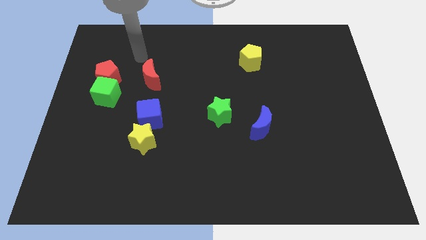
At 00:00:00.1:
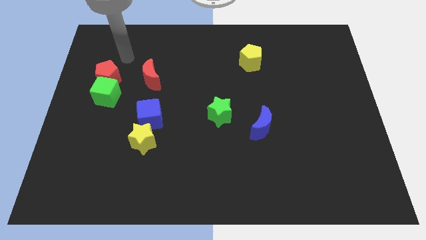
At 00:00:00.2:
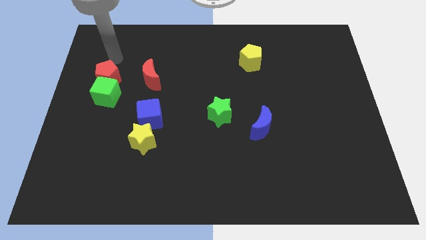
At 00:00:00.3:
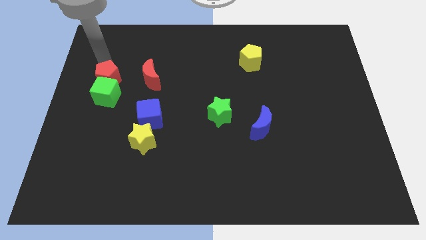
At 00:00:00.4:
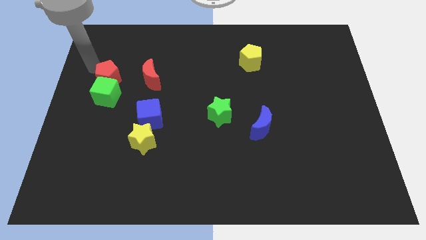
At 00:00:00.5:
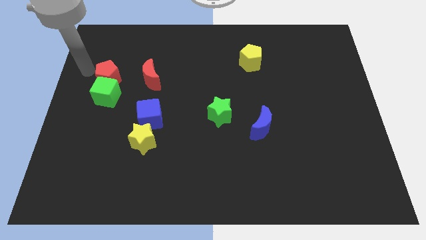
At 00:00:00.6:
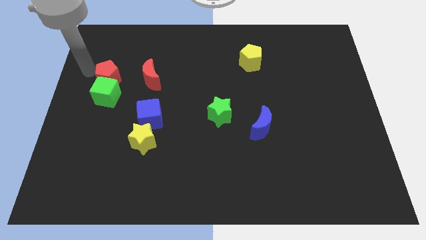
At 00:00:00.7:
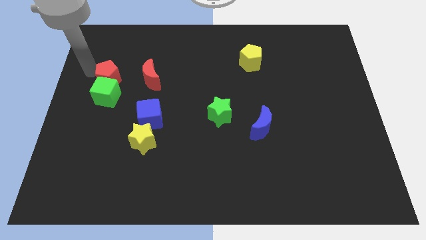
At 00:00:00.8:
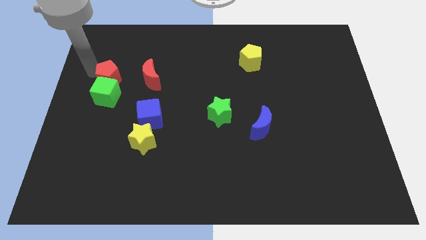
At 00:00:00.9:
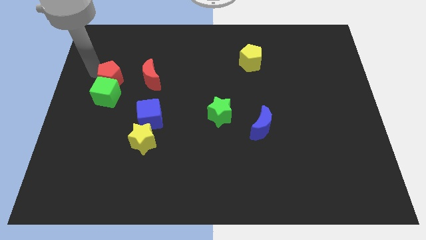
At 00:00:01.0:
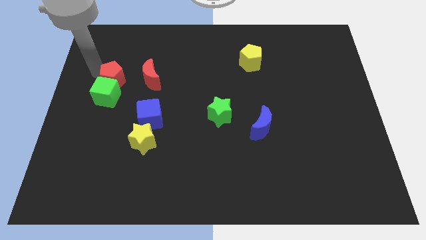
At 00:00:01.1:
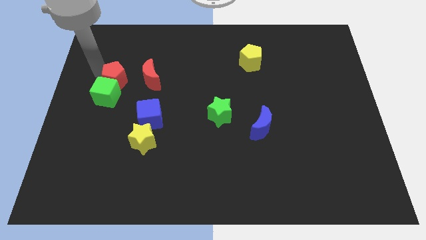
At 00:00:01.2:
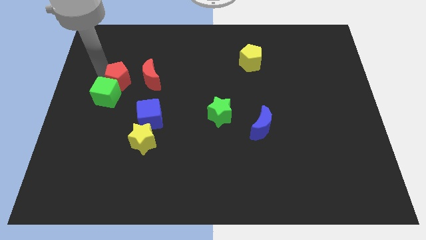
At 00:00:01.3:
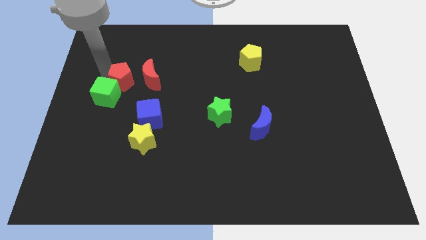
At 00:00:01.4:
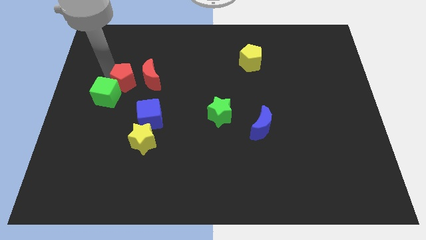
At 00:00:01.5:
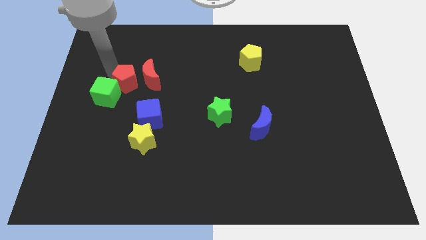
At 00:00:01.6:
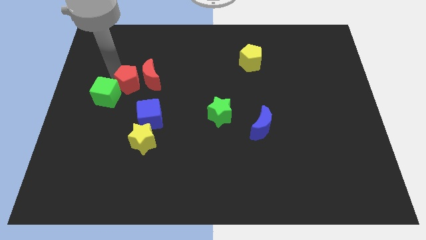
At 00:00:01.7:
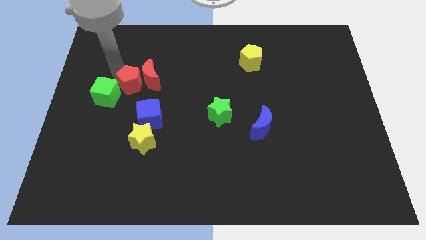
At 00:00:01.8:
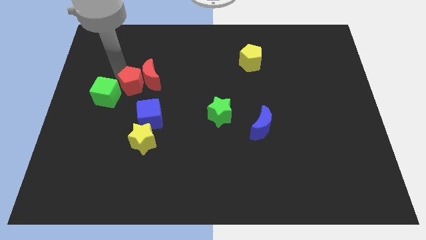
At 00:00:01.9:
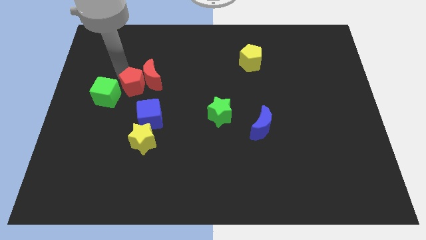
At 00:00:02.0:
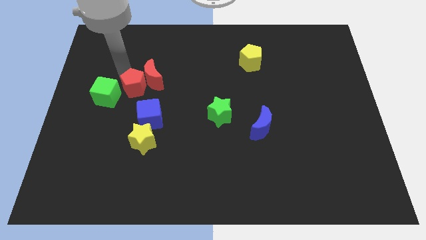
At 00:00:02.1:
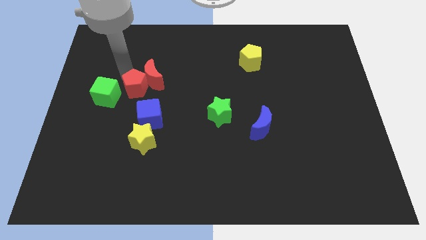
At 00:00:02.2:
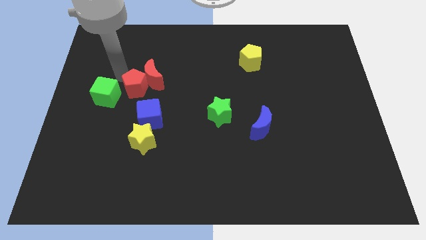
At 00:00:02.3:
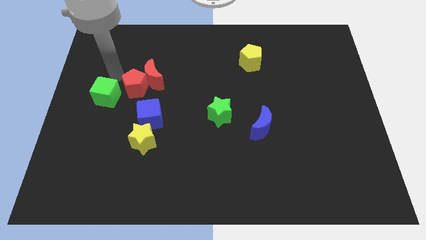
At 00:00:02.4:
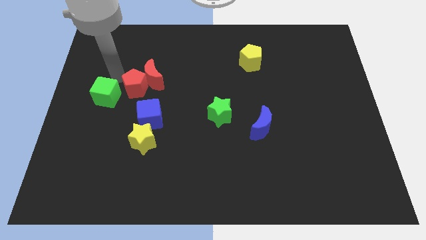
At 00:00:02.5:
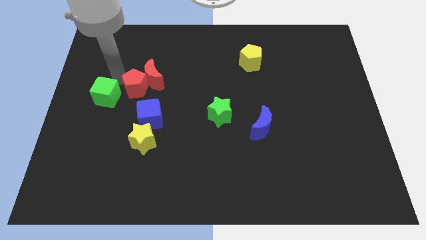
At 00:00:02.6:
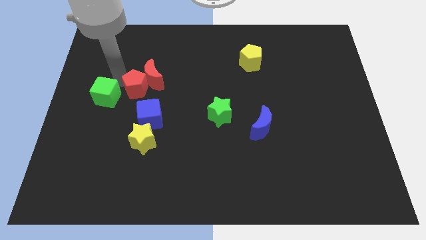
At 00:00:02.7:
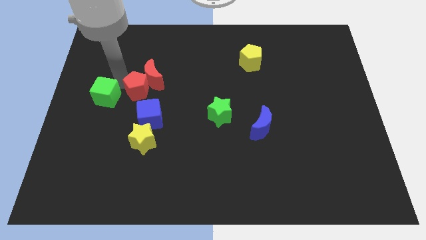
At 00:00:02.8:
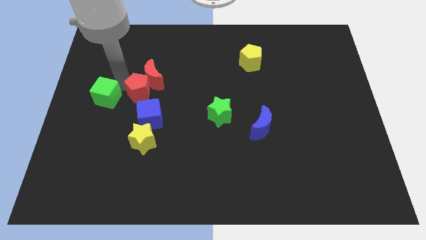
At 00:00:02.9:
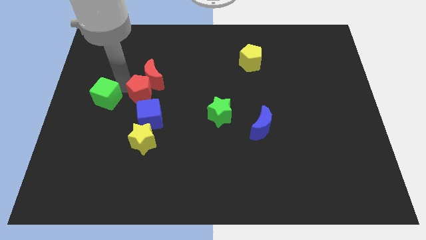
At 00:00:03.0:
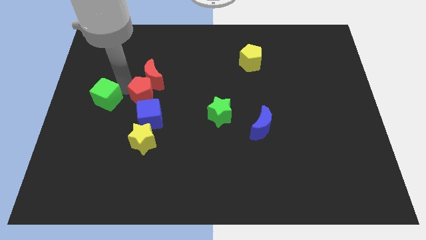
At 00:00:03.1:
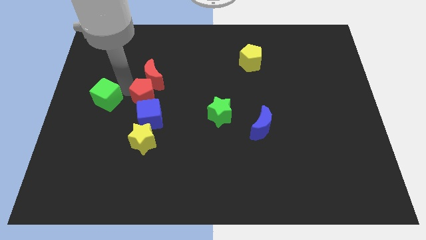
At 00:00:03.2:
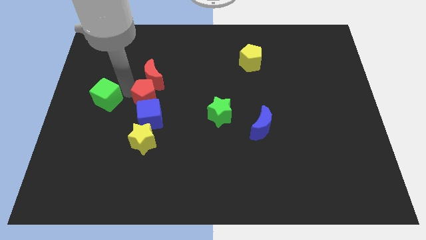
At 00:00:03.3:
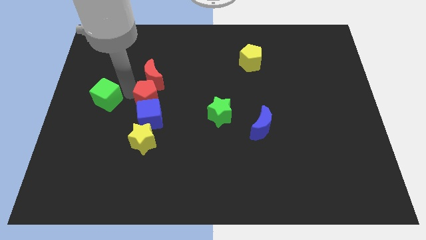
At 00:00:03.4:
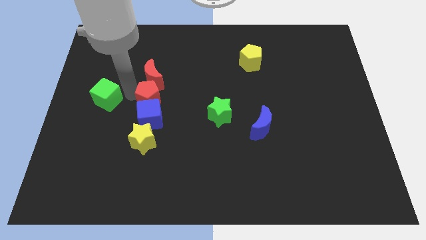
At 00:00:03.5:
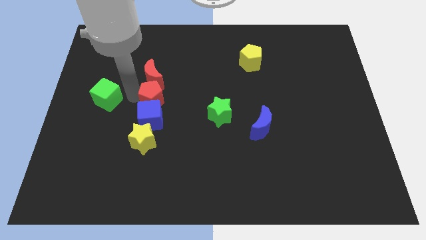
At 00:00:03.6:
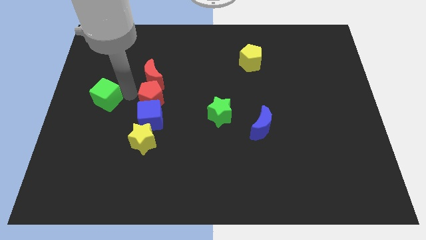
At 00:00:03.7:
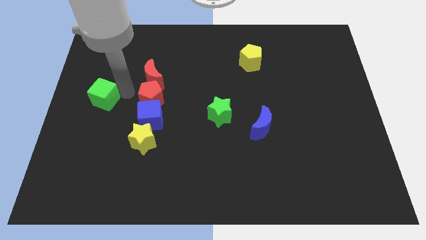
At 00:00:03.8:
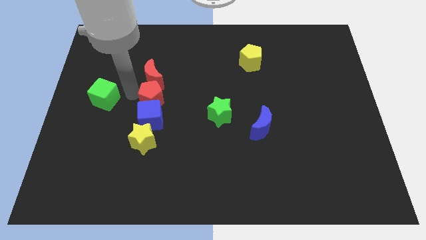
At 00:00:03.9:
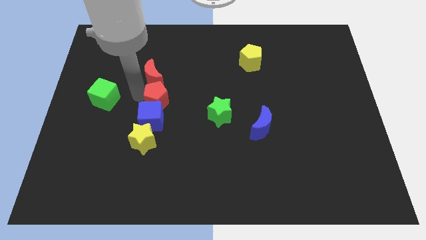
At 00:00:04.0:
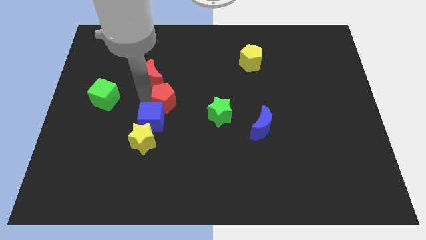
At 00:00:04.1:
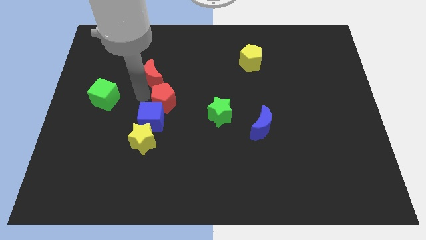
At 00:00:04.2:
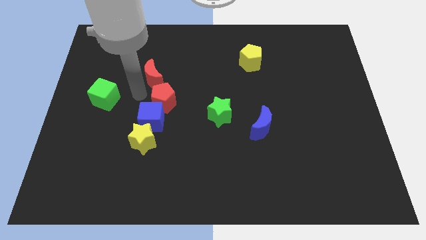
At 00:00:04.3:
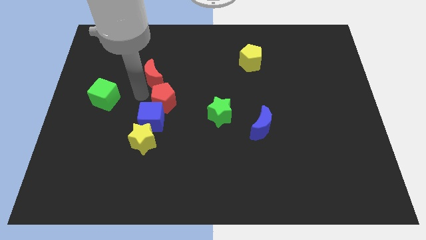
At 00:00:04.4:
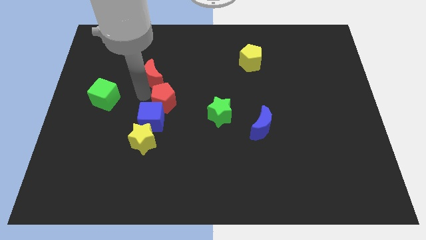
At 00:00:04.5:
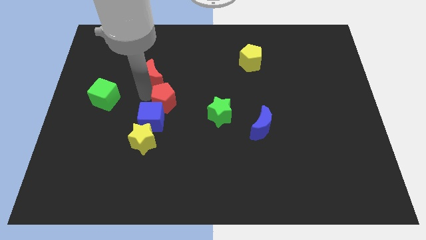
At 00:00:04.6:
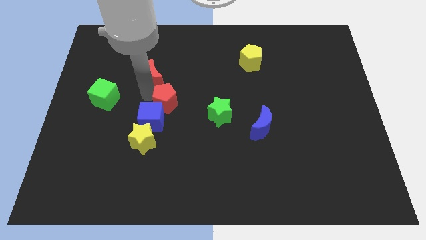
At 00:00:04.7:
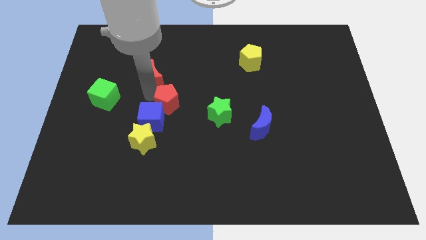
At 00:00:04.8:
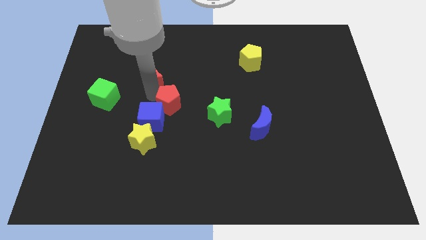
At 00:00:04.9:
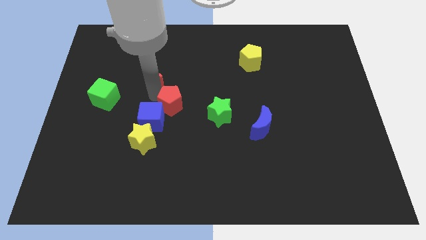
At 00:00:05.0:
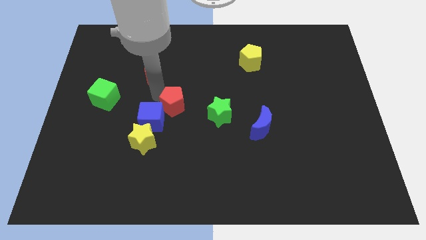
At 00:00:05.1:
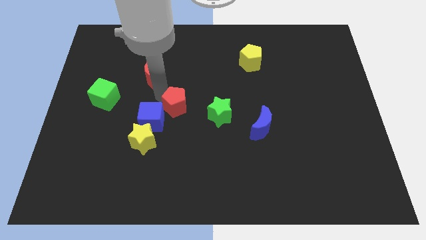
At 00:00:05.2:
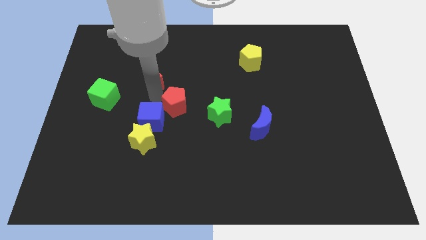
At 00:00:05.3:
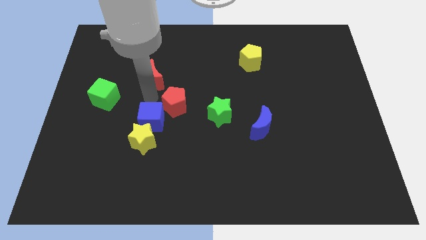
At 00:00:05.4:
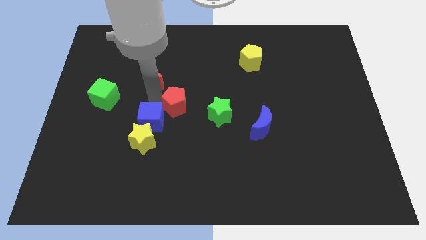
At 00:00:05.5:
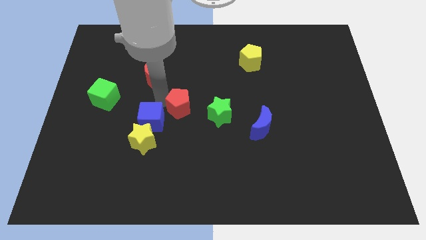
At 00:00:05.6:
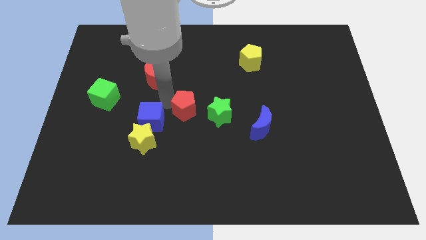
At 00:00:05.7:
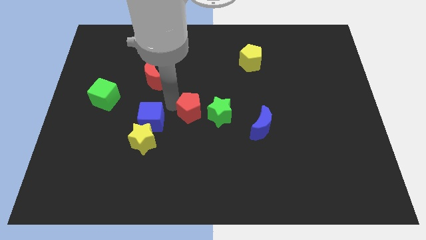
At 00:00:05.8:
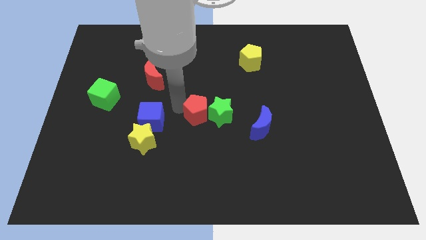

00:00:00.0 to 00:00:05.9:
put the red pentagon close to the green star

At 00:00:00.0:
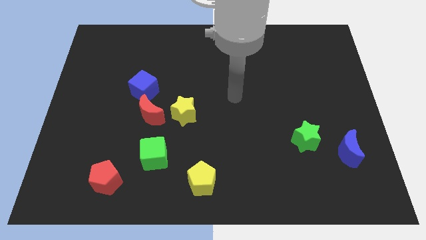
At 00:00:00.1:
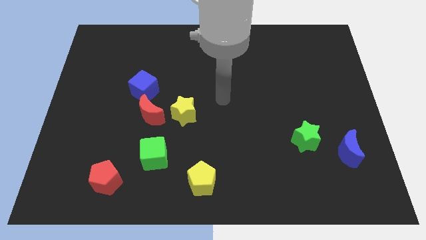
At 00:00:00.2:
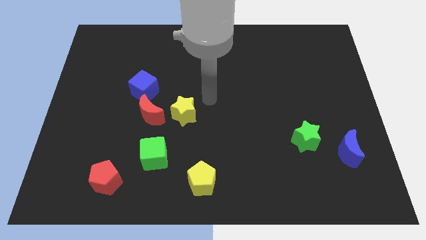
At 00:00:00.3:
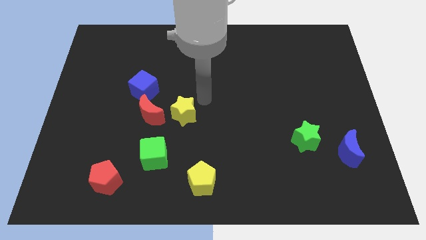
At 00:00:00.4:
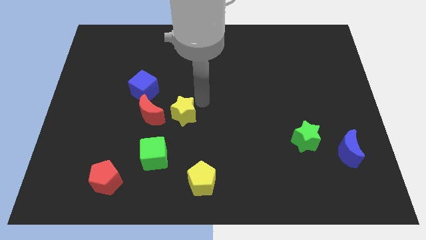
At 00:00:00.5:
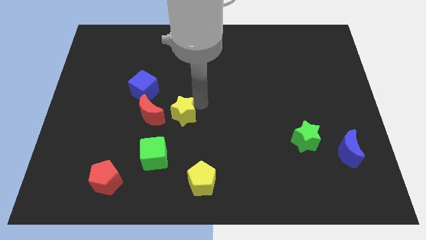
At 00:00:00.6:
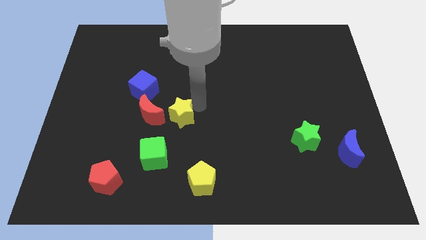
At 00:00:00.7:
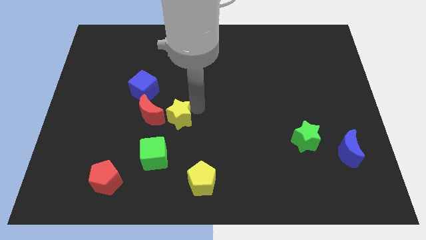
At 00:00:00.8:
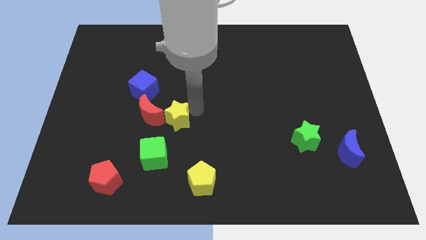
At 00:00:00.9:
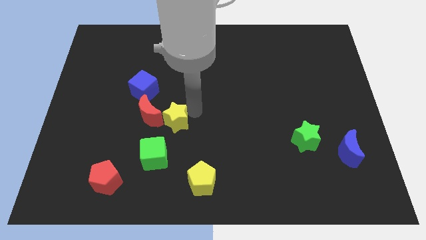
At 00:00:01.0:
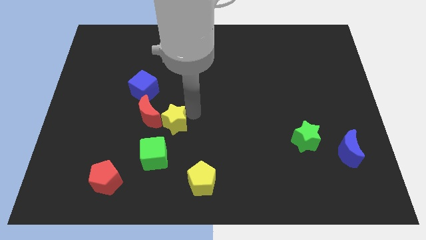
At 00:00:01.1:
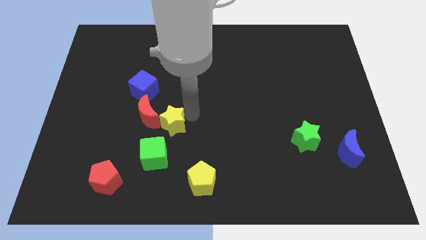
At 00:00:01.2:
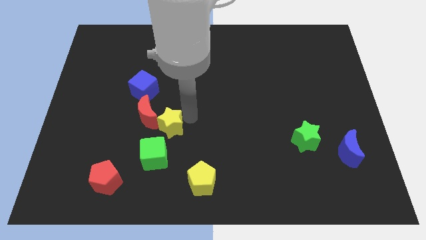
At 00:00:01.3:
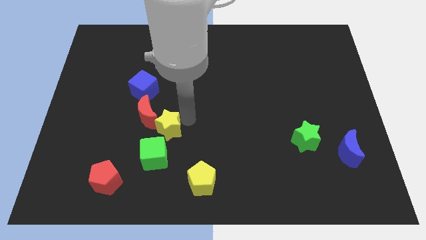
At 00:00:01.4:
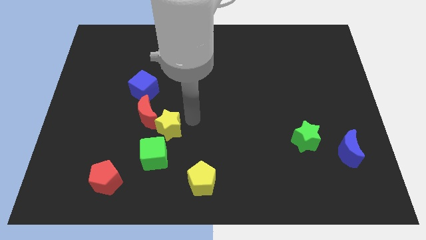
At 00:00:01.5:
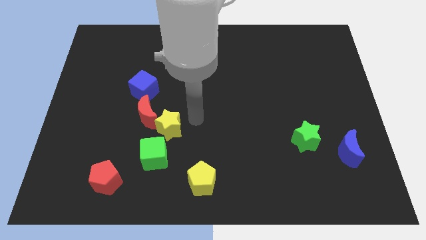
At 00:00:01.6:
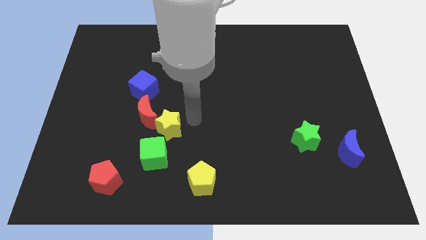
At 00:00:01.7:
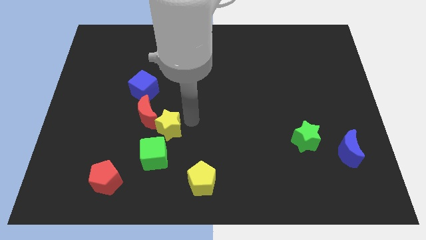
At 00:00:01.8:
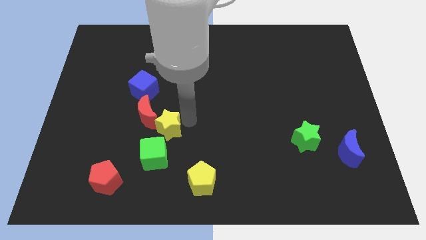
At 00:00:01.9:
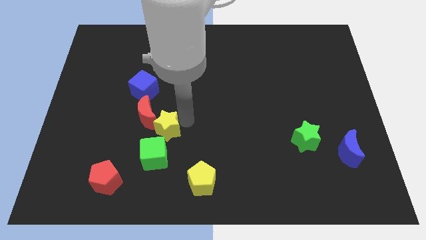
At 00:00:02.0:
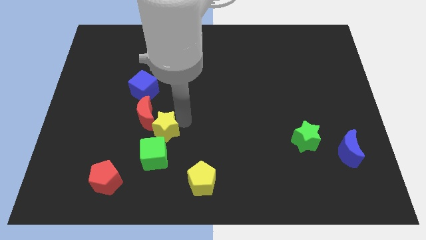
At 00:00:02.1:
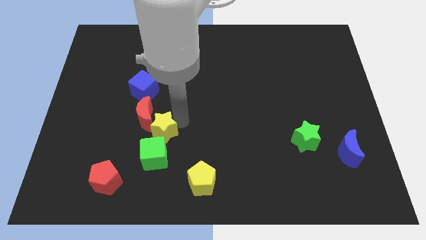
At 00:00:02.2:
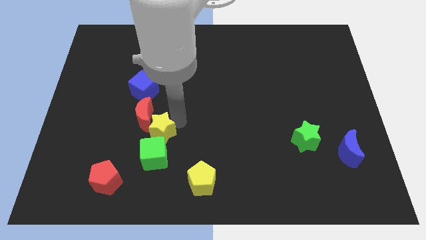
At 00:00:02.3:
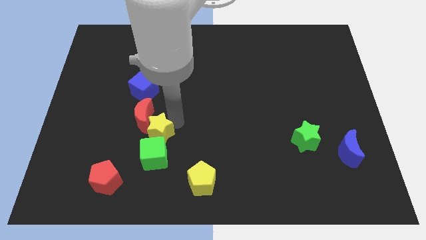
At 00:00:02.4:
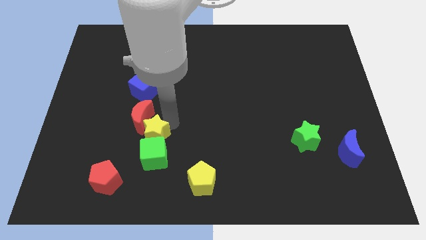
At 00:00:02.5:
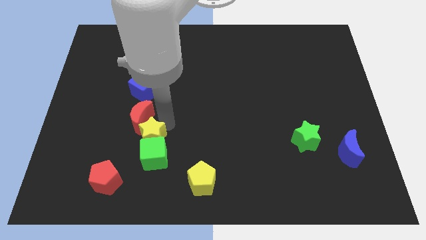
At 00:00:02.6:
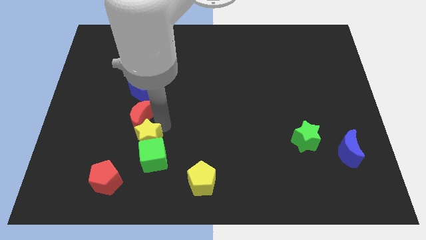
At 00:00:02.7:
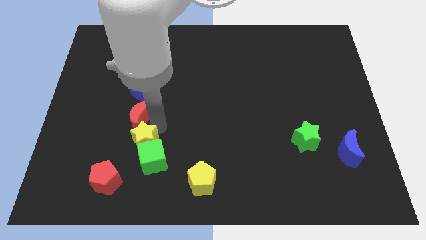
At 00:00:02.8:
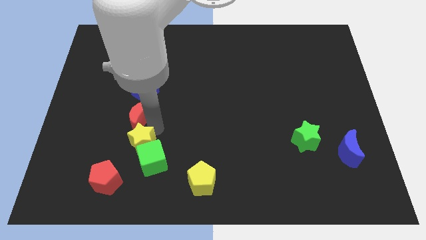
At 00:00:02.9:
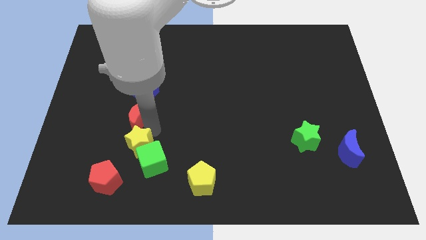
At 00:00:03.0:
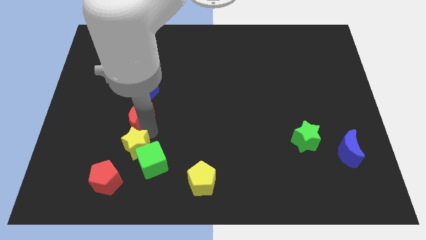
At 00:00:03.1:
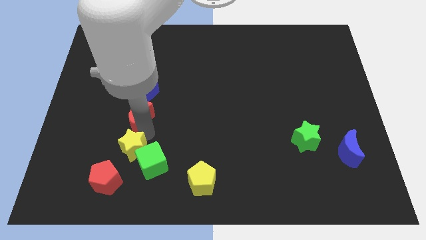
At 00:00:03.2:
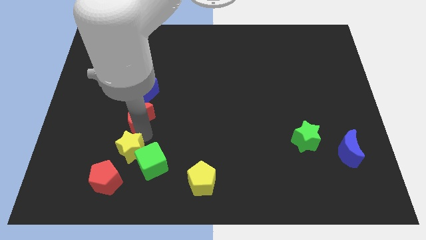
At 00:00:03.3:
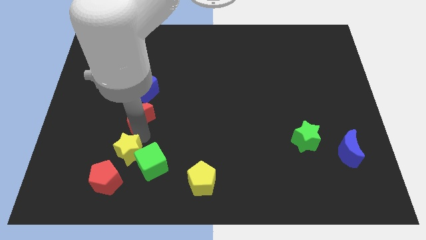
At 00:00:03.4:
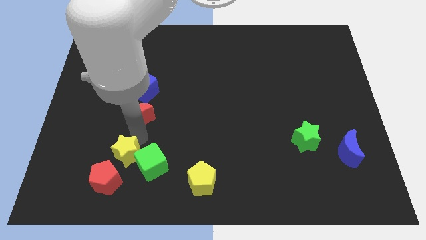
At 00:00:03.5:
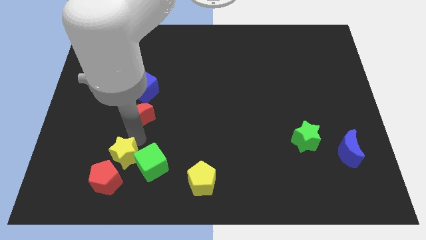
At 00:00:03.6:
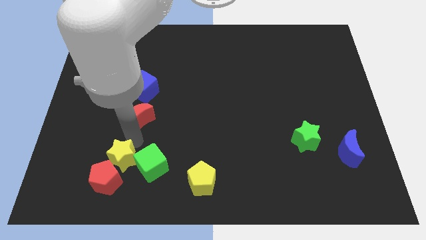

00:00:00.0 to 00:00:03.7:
move the yellow star towards the red pentagon
